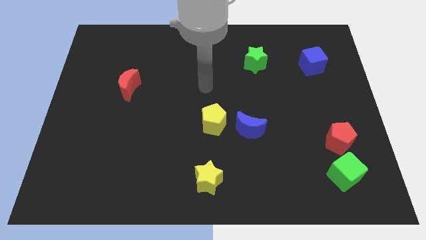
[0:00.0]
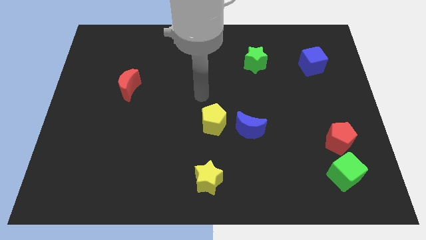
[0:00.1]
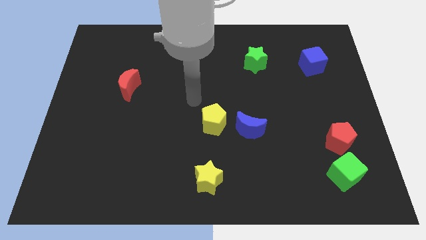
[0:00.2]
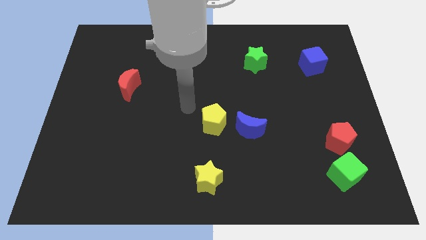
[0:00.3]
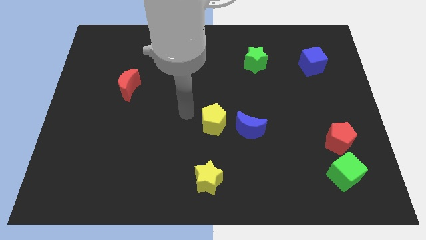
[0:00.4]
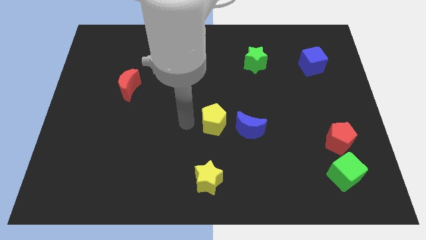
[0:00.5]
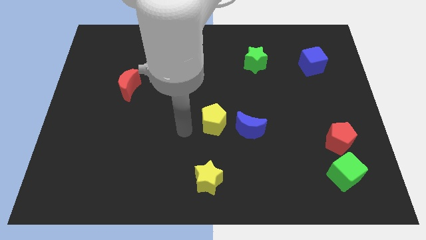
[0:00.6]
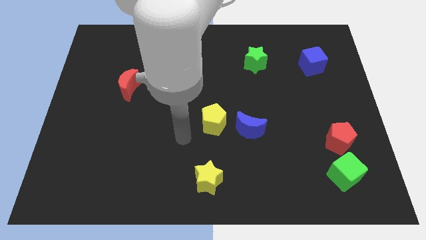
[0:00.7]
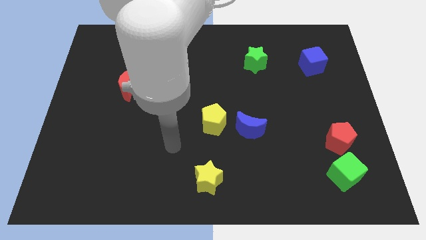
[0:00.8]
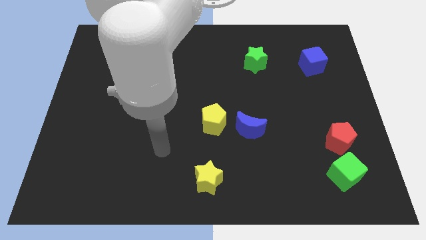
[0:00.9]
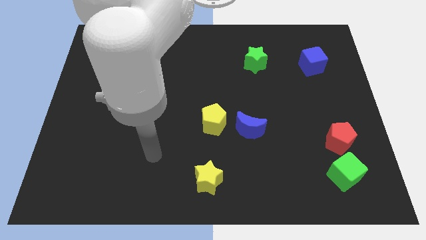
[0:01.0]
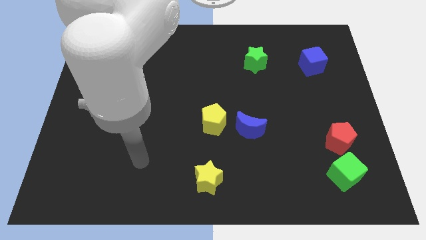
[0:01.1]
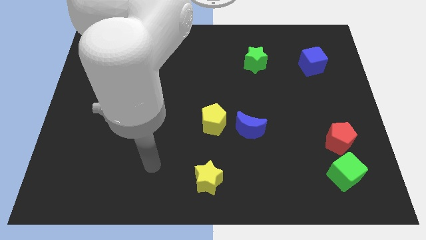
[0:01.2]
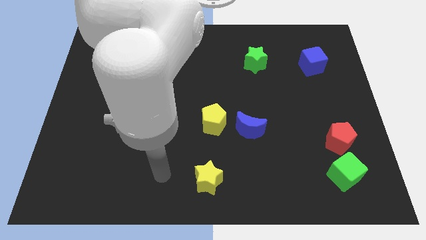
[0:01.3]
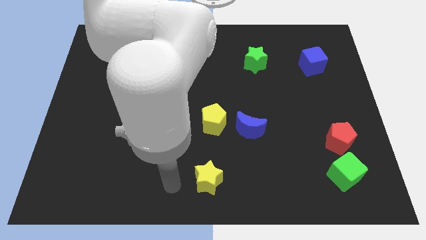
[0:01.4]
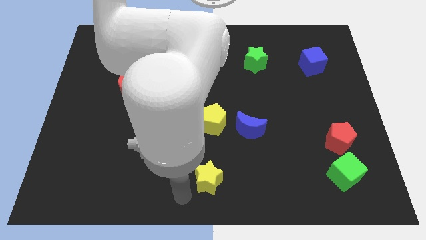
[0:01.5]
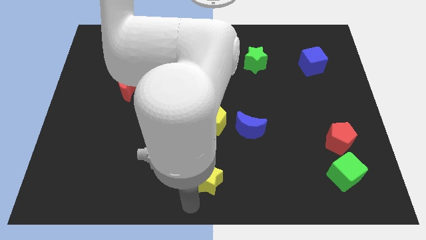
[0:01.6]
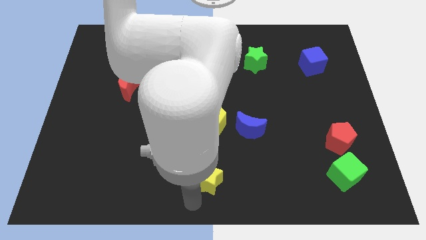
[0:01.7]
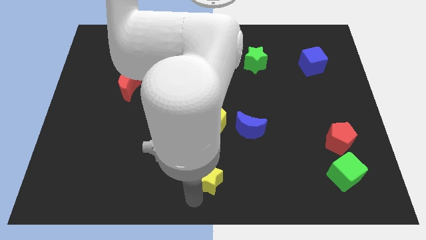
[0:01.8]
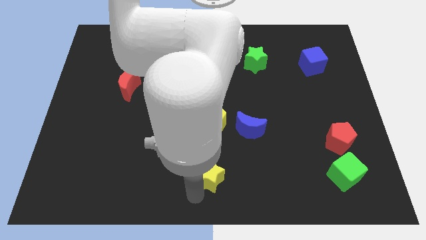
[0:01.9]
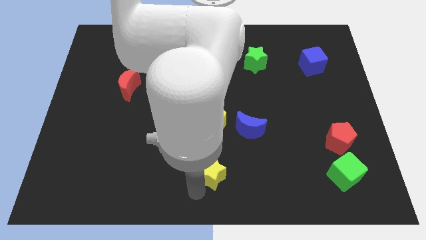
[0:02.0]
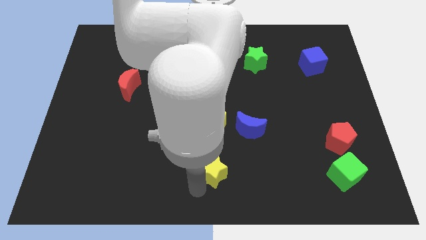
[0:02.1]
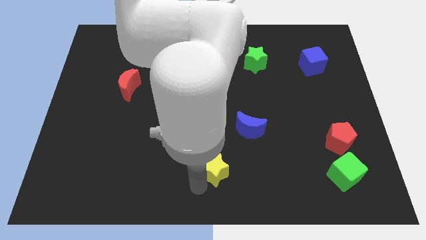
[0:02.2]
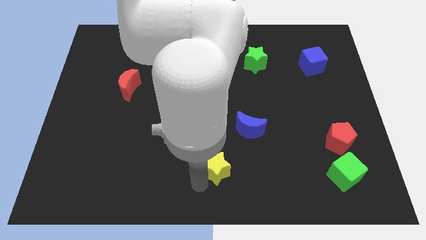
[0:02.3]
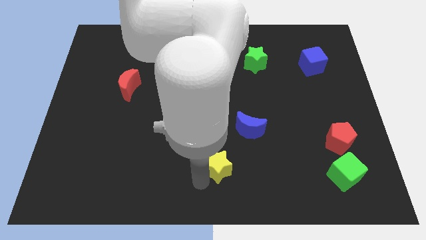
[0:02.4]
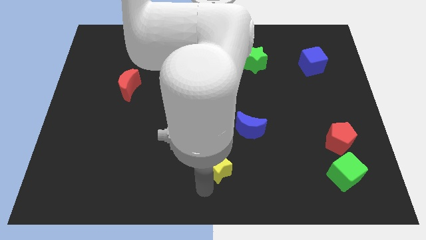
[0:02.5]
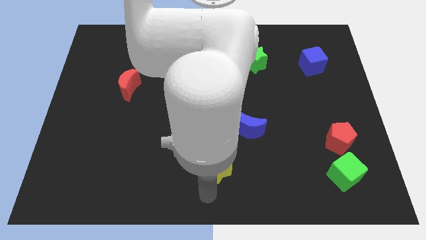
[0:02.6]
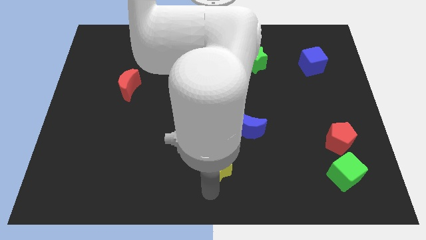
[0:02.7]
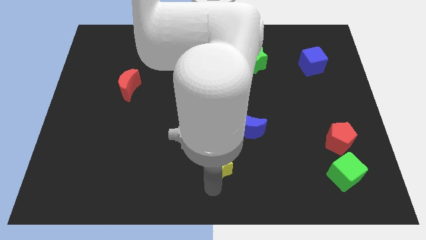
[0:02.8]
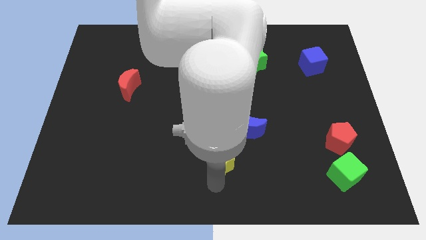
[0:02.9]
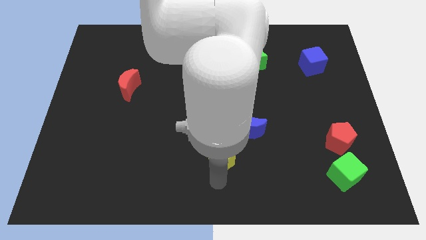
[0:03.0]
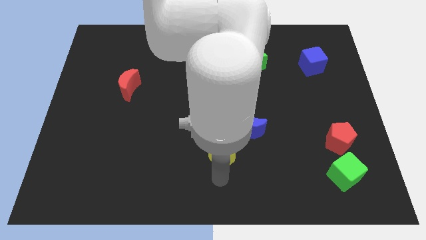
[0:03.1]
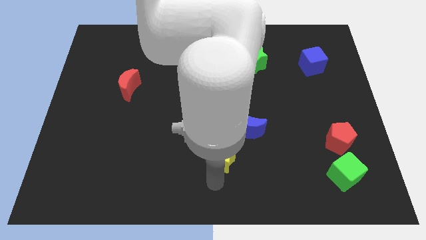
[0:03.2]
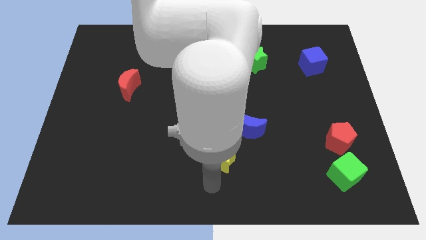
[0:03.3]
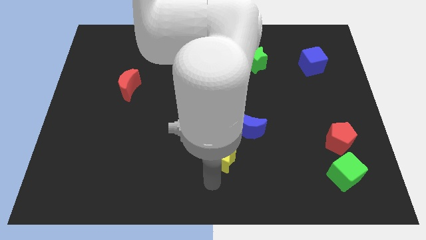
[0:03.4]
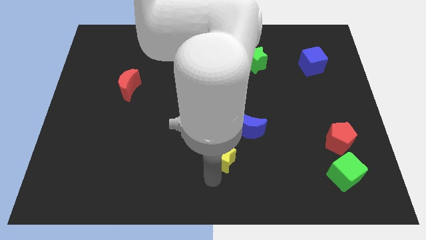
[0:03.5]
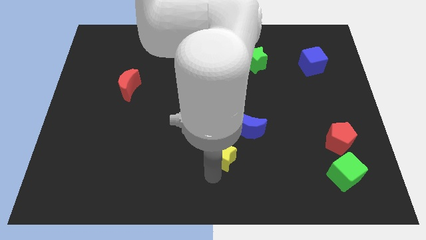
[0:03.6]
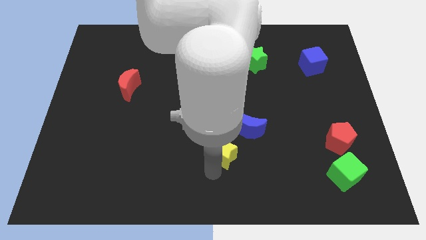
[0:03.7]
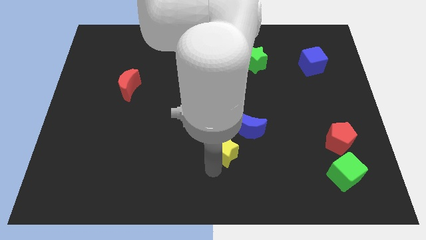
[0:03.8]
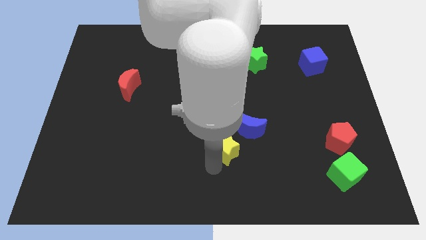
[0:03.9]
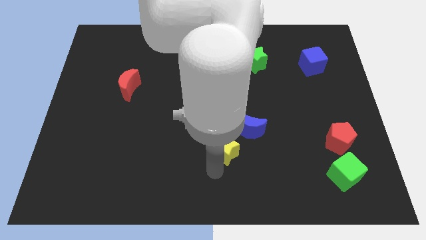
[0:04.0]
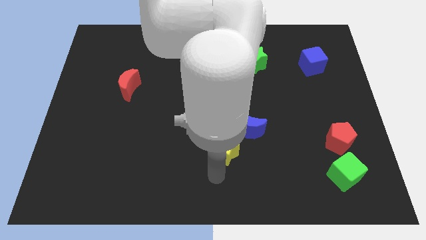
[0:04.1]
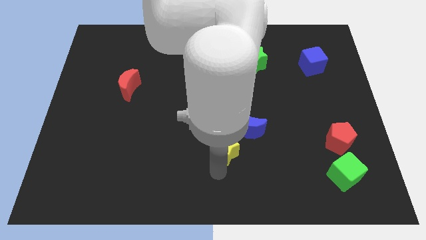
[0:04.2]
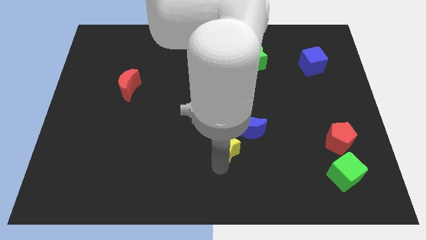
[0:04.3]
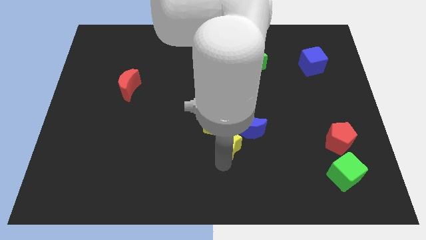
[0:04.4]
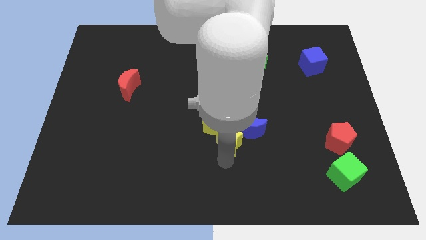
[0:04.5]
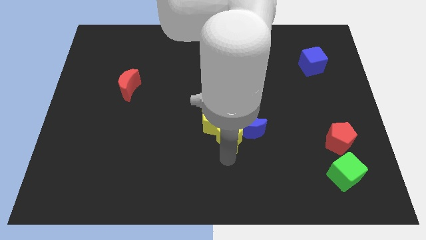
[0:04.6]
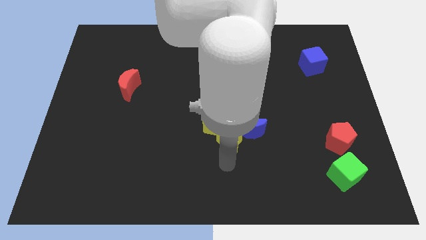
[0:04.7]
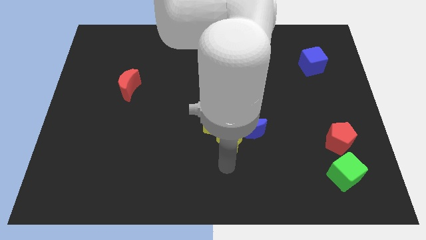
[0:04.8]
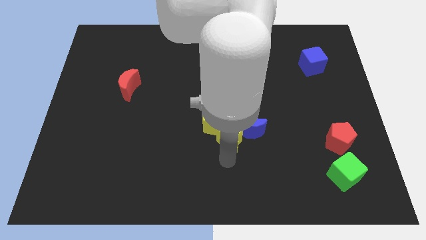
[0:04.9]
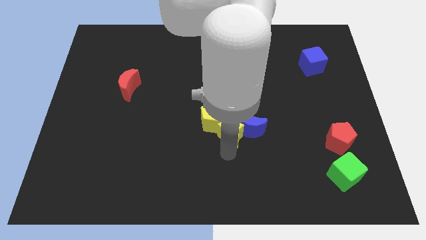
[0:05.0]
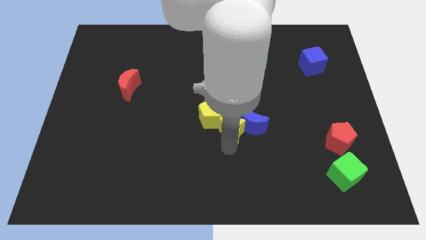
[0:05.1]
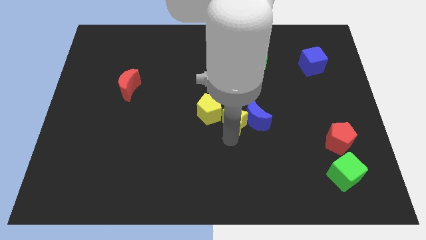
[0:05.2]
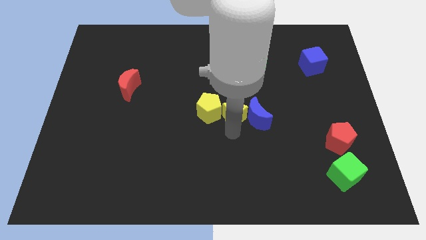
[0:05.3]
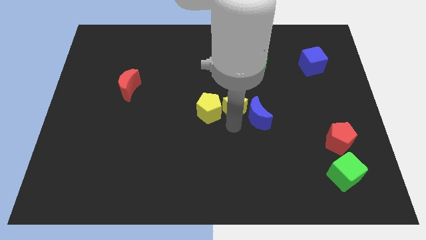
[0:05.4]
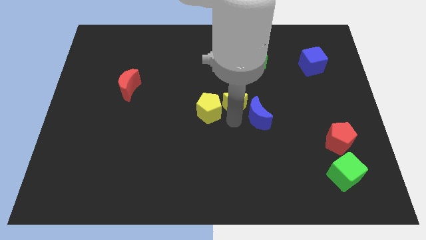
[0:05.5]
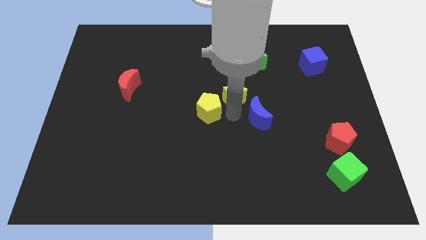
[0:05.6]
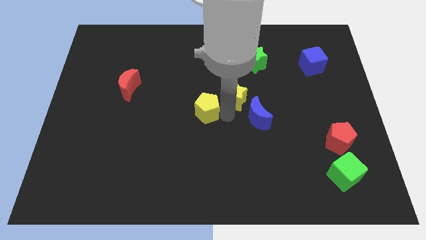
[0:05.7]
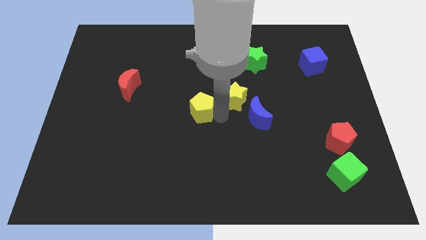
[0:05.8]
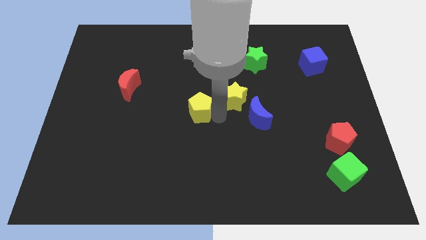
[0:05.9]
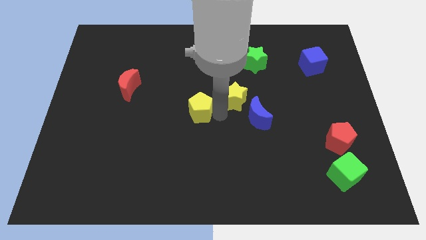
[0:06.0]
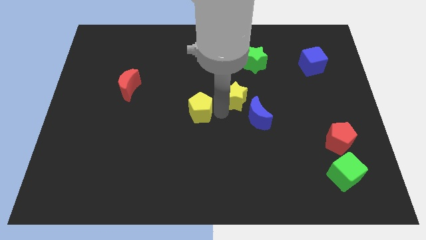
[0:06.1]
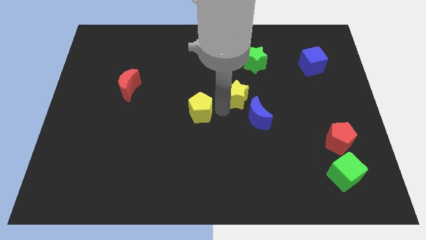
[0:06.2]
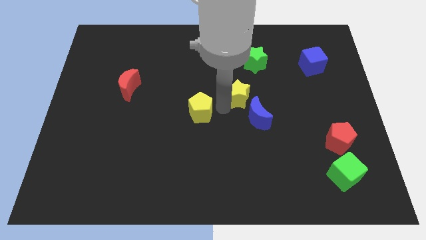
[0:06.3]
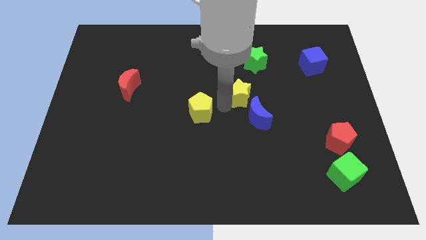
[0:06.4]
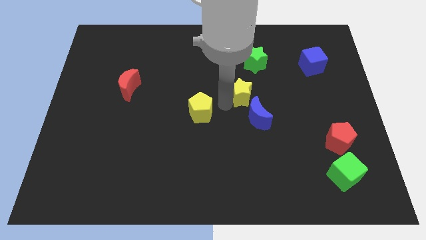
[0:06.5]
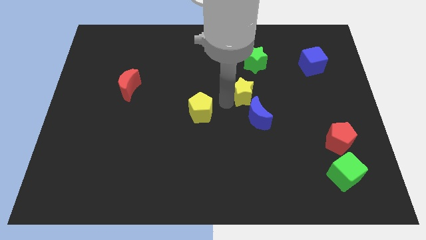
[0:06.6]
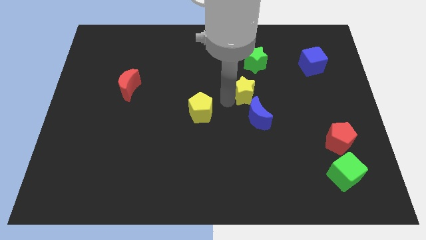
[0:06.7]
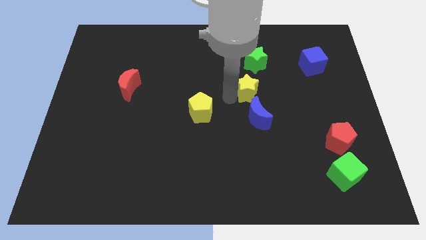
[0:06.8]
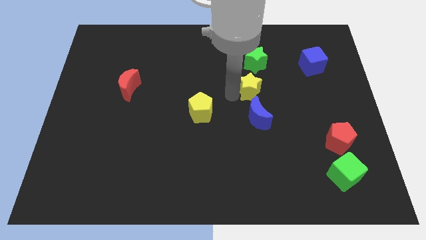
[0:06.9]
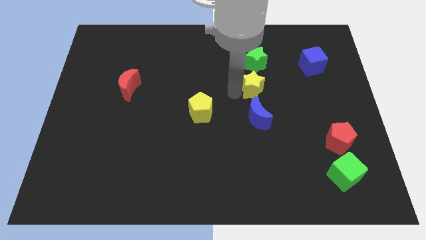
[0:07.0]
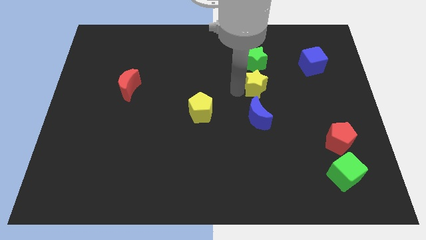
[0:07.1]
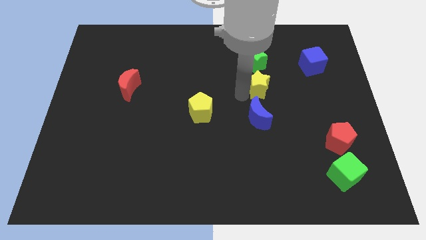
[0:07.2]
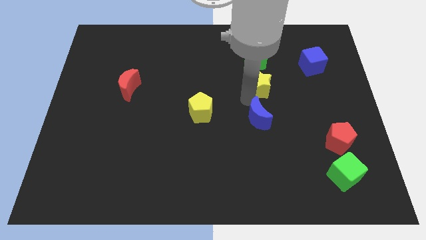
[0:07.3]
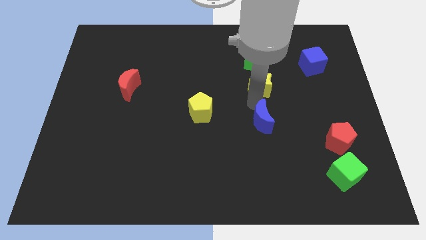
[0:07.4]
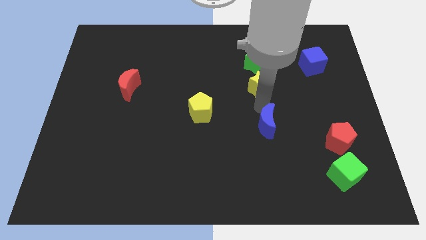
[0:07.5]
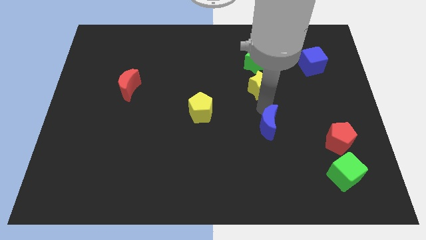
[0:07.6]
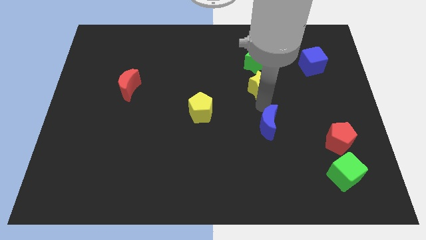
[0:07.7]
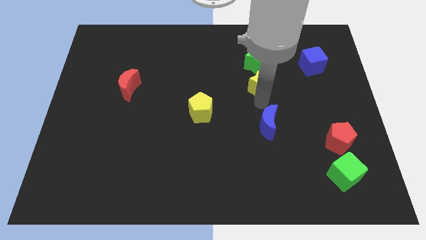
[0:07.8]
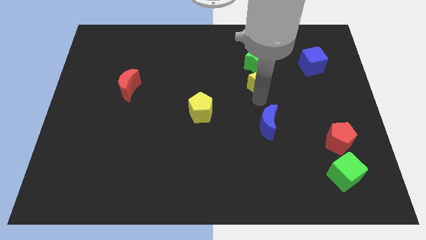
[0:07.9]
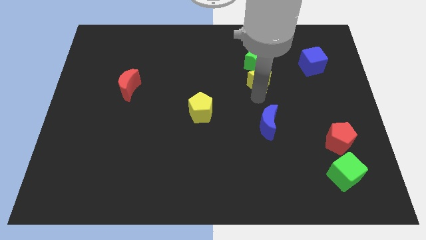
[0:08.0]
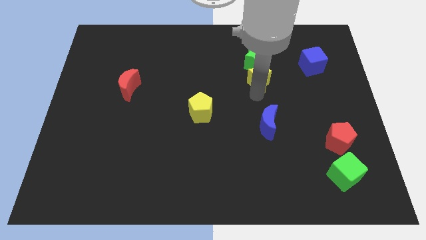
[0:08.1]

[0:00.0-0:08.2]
move the yellow star close to the green star
